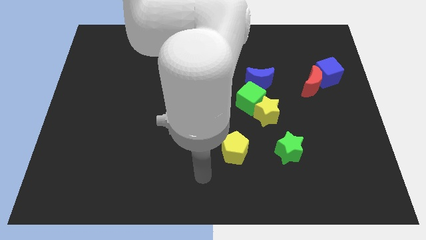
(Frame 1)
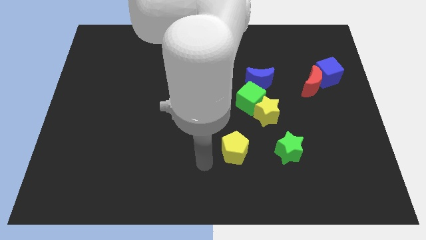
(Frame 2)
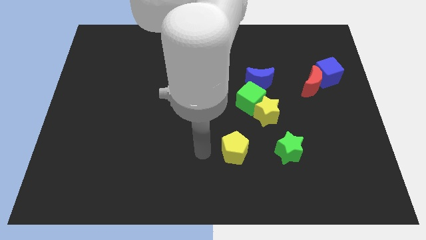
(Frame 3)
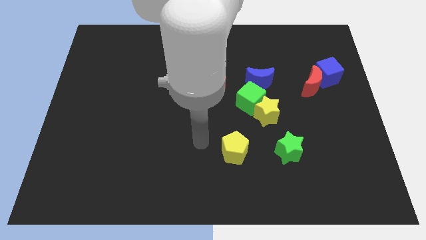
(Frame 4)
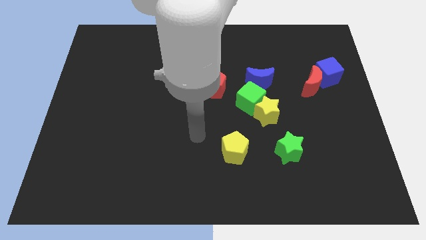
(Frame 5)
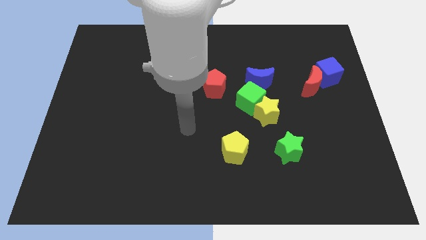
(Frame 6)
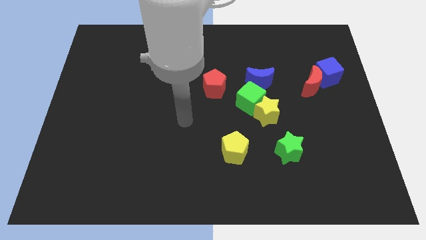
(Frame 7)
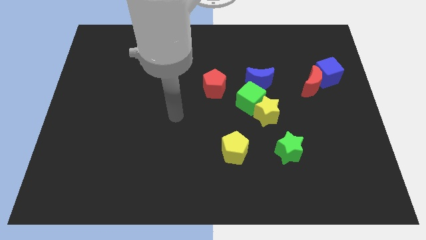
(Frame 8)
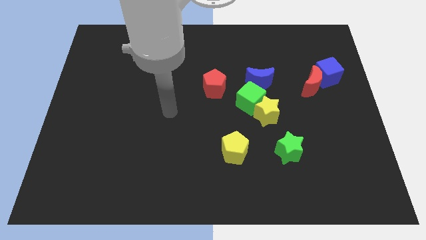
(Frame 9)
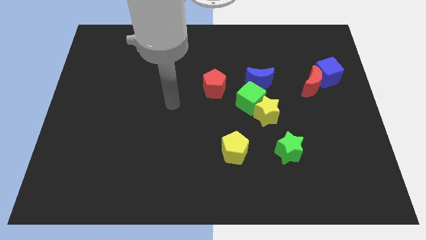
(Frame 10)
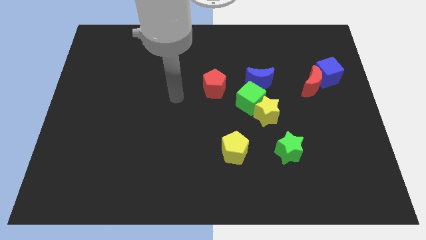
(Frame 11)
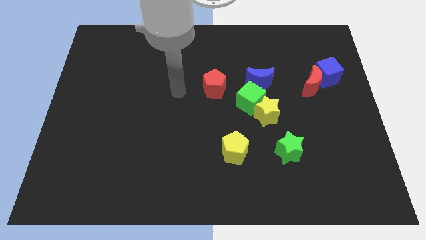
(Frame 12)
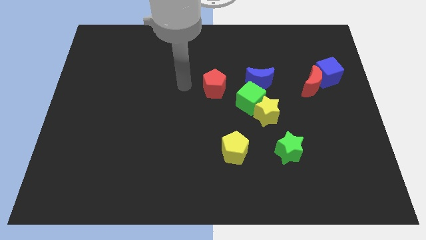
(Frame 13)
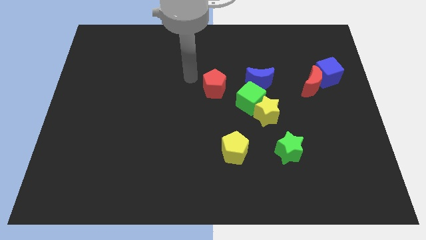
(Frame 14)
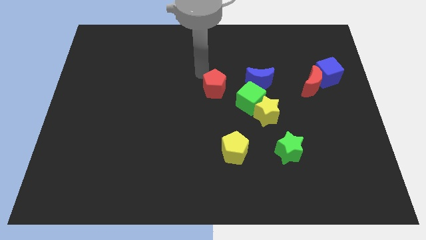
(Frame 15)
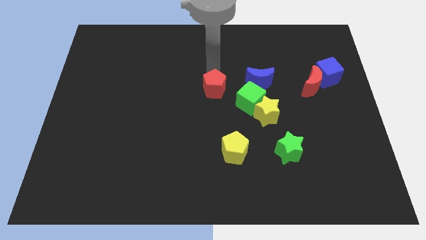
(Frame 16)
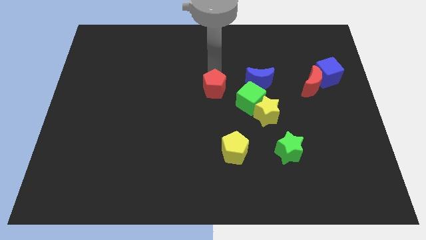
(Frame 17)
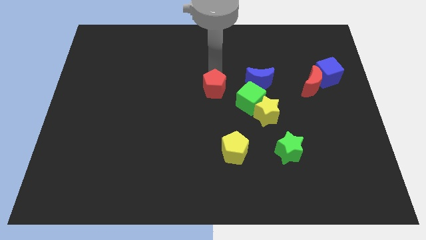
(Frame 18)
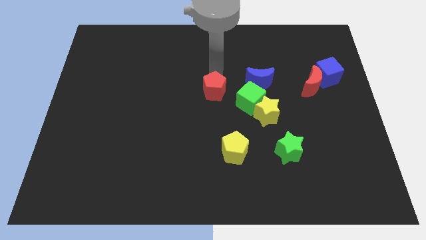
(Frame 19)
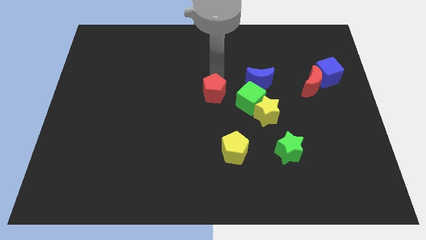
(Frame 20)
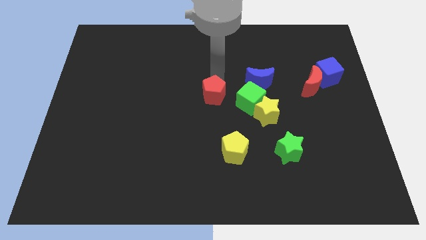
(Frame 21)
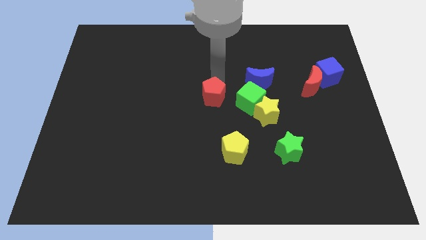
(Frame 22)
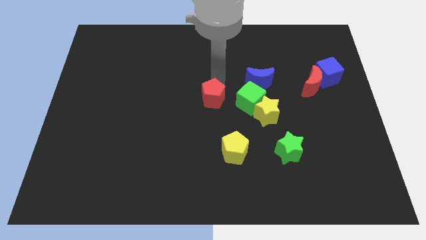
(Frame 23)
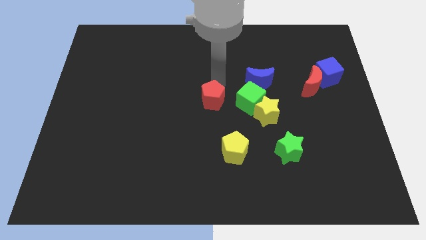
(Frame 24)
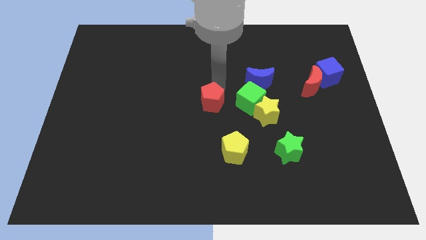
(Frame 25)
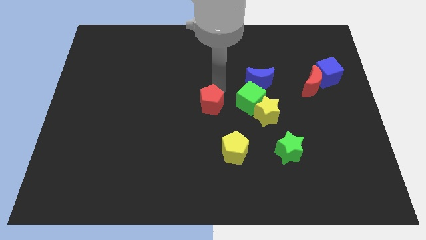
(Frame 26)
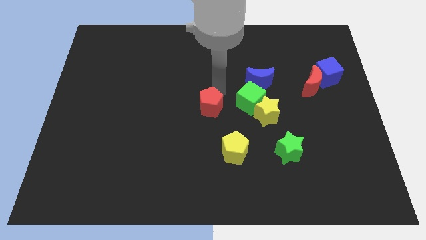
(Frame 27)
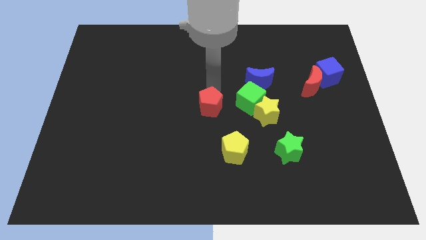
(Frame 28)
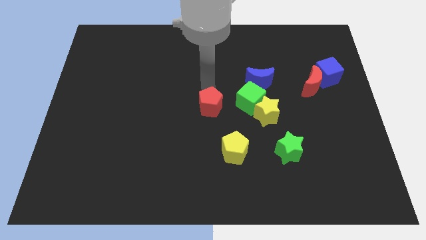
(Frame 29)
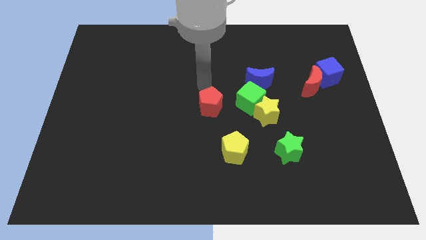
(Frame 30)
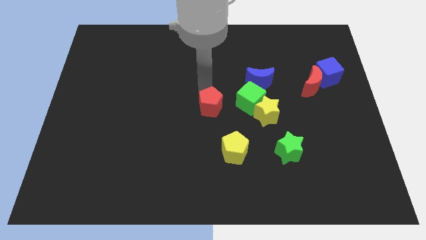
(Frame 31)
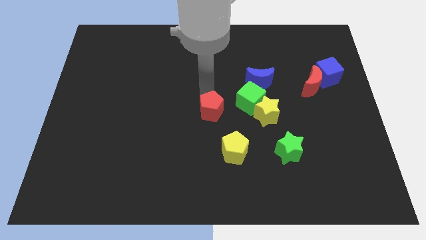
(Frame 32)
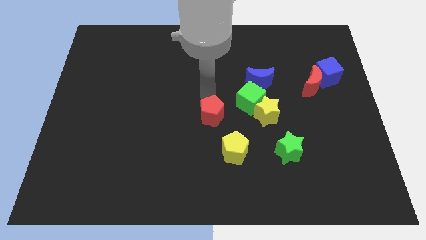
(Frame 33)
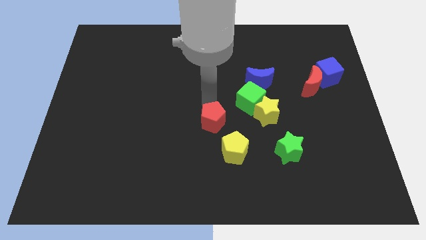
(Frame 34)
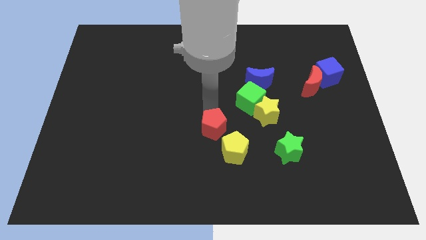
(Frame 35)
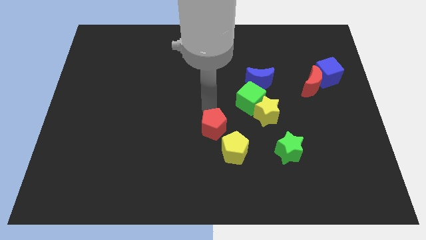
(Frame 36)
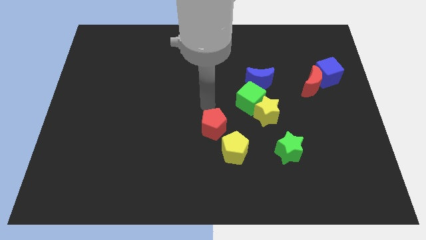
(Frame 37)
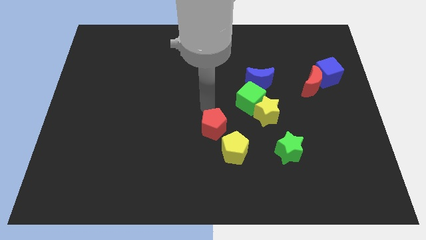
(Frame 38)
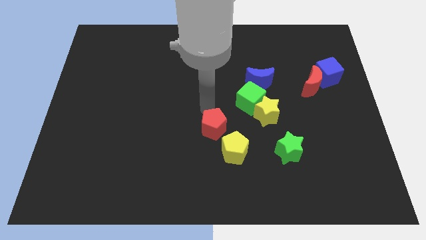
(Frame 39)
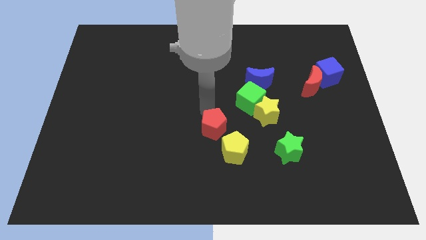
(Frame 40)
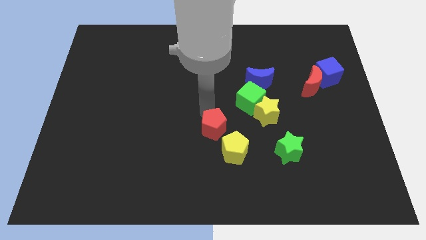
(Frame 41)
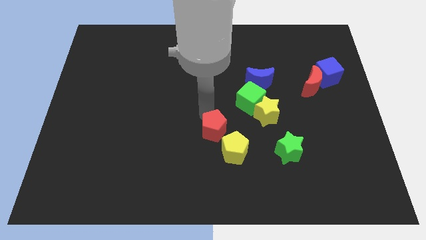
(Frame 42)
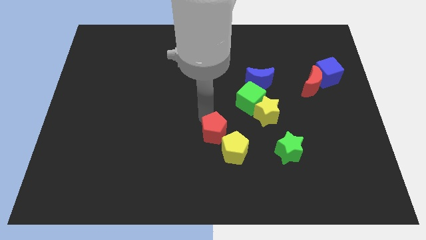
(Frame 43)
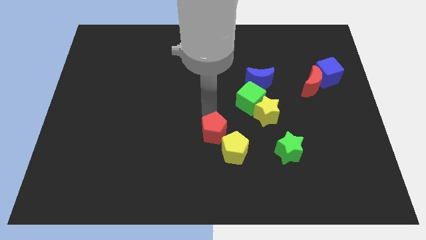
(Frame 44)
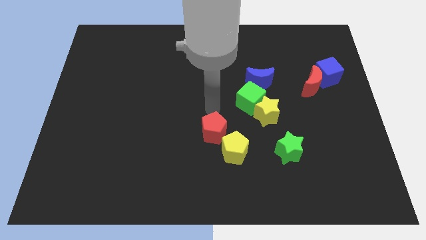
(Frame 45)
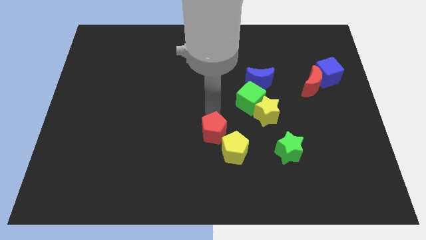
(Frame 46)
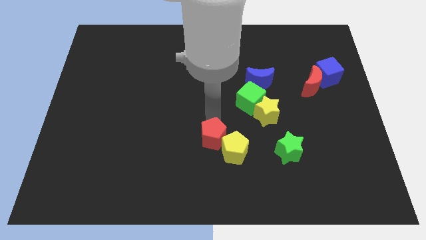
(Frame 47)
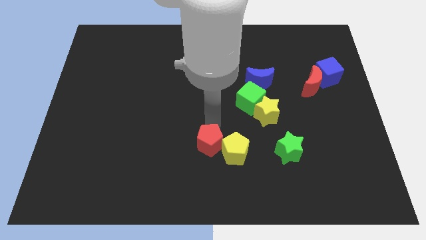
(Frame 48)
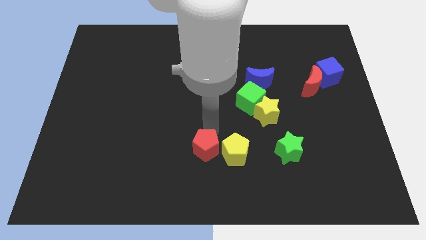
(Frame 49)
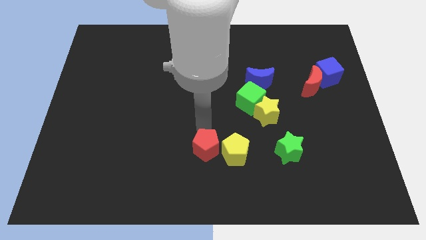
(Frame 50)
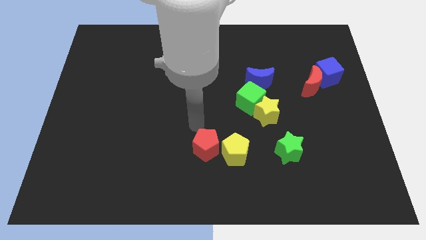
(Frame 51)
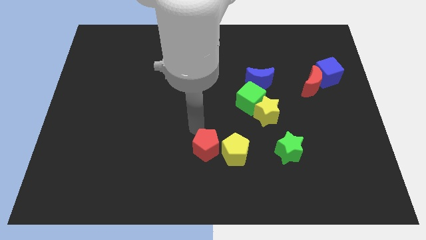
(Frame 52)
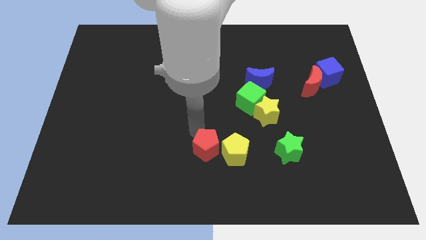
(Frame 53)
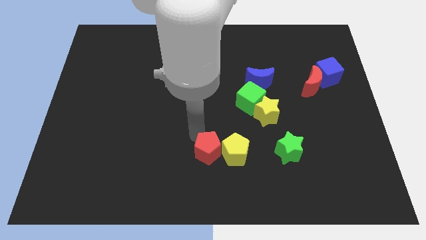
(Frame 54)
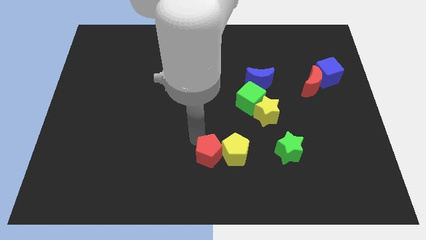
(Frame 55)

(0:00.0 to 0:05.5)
move the red pentagon to the bottom side

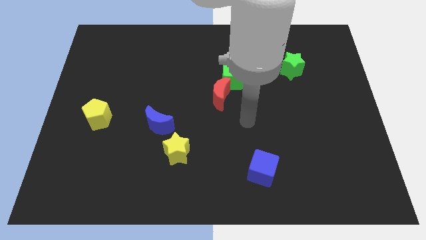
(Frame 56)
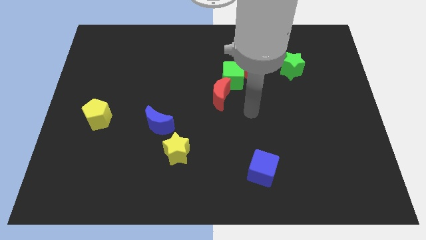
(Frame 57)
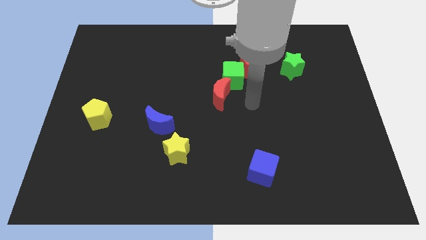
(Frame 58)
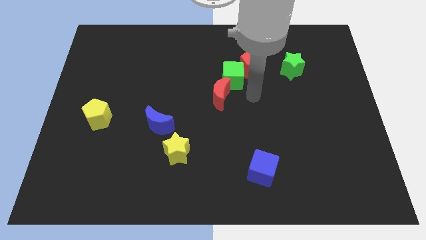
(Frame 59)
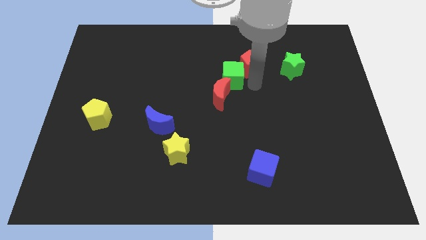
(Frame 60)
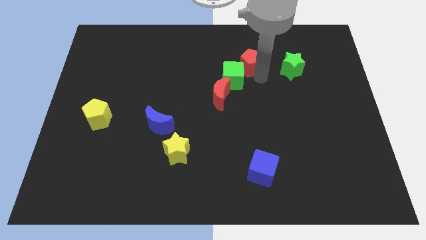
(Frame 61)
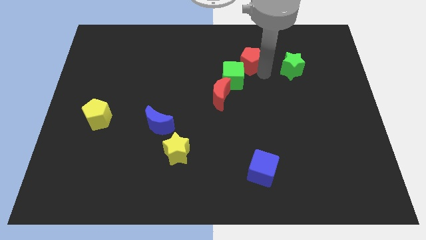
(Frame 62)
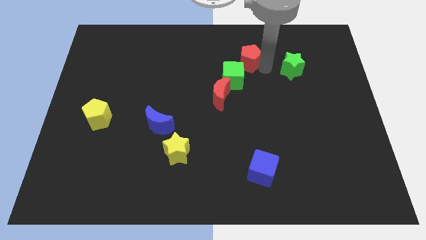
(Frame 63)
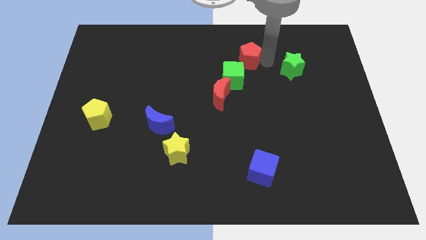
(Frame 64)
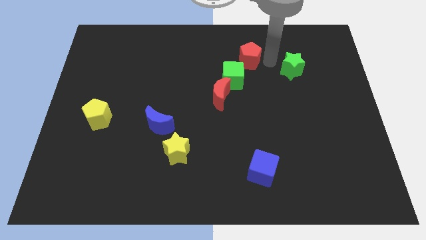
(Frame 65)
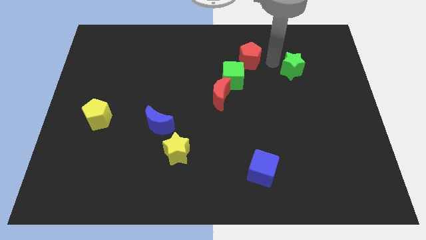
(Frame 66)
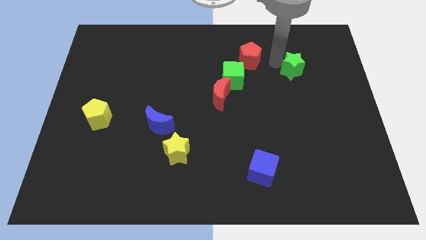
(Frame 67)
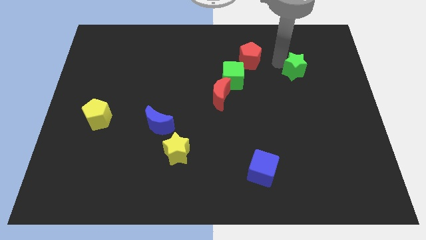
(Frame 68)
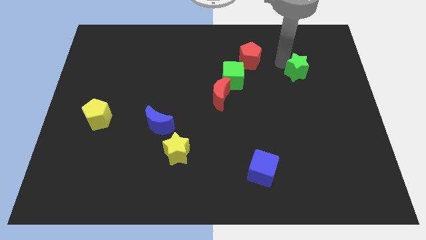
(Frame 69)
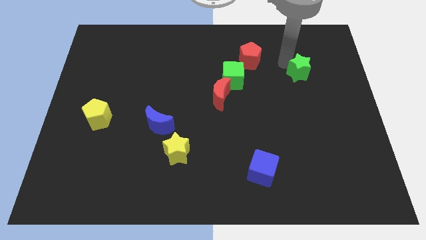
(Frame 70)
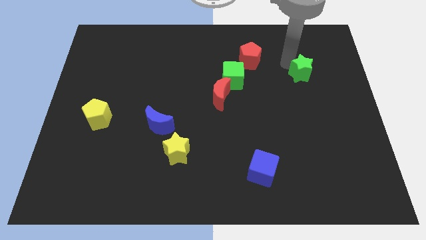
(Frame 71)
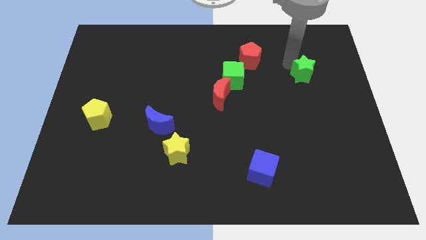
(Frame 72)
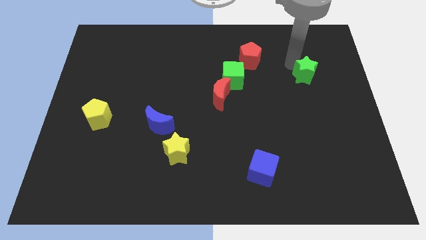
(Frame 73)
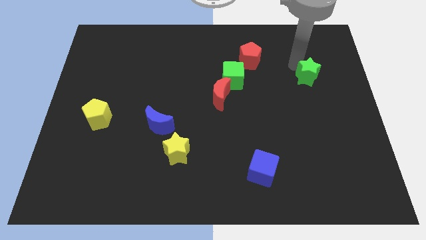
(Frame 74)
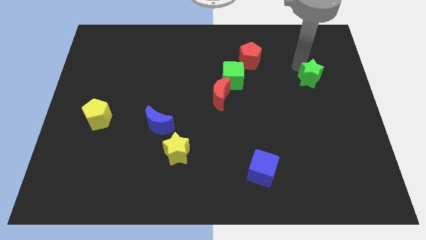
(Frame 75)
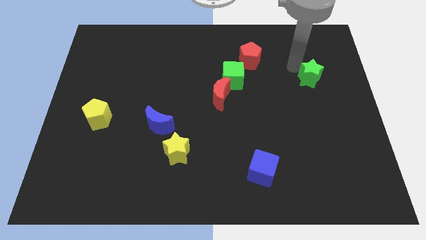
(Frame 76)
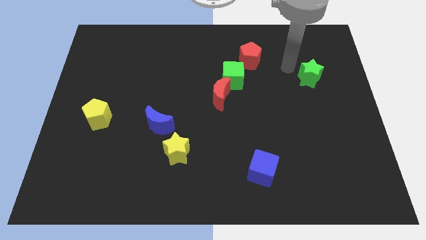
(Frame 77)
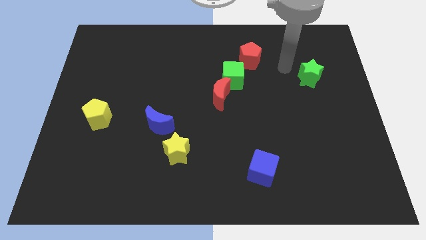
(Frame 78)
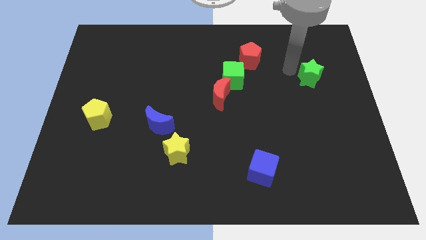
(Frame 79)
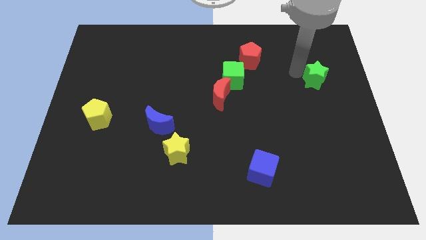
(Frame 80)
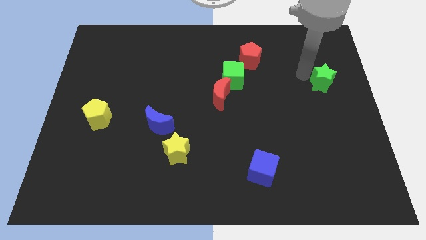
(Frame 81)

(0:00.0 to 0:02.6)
move the green star to the right side of the board
